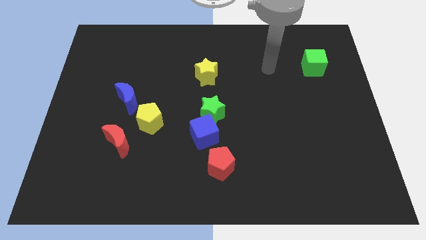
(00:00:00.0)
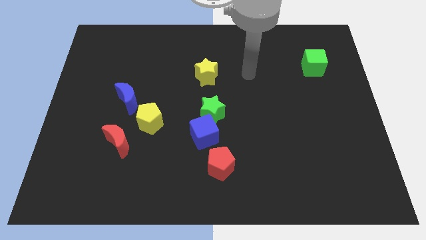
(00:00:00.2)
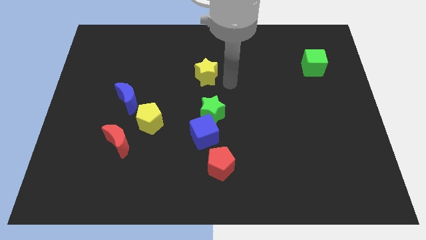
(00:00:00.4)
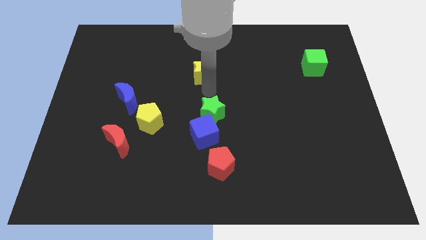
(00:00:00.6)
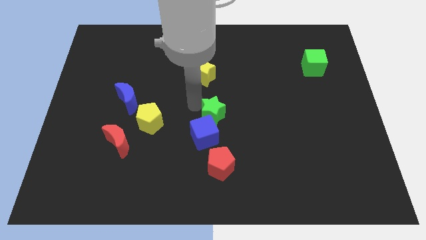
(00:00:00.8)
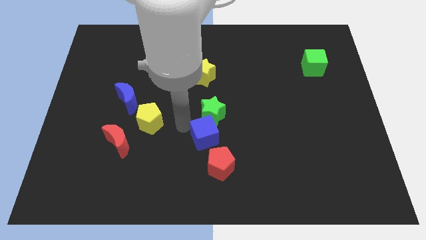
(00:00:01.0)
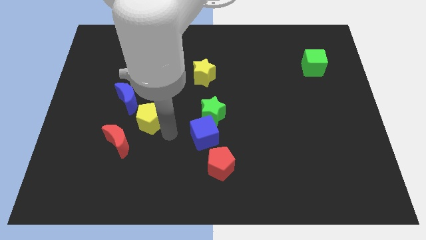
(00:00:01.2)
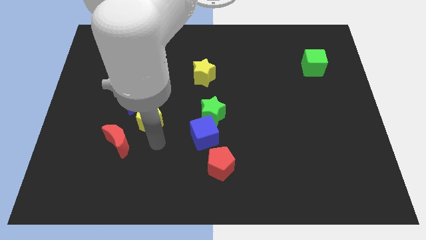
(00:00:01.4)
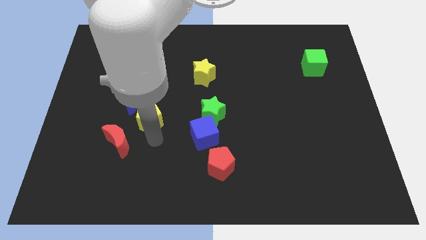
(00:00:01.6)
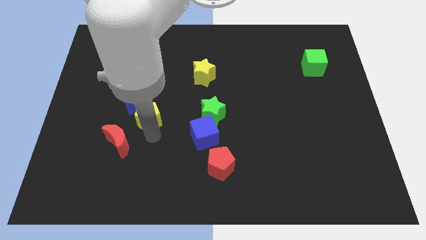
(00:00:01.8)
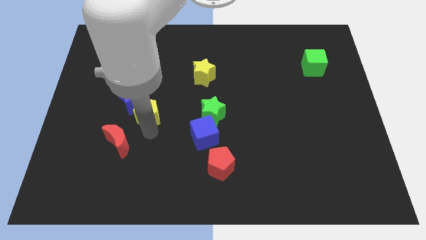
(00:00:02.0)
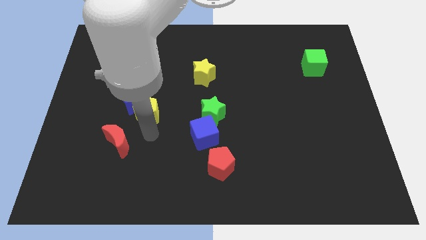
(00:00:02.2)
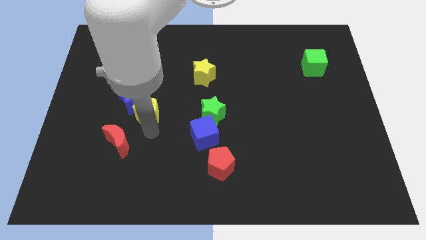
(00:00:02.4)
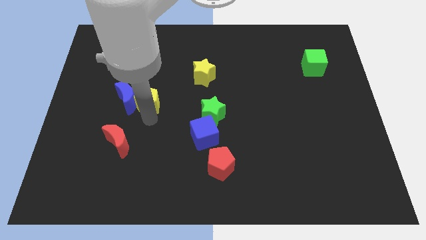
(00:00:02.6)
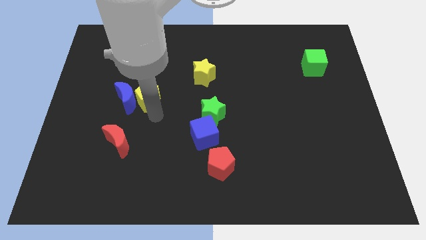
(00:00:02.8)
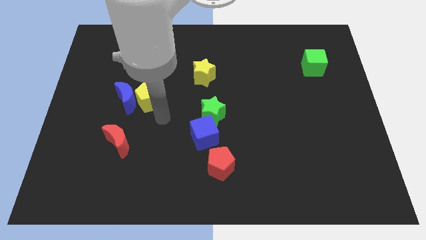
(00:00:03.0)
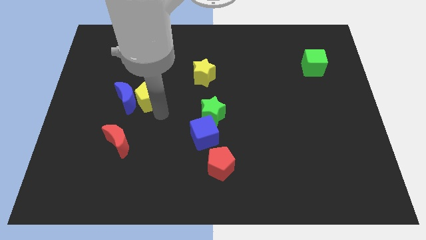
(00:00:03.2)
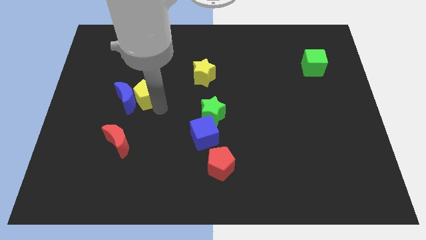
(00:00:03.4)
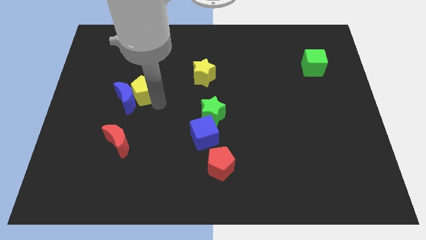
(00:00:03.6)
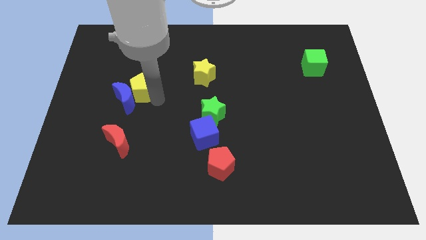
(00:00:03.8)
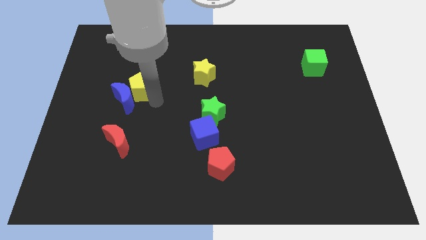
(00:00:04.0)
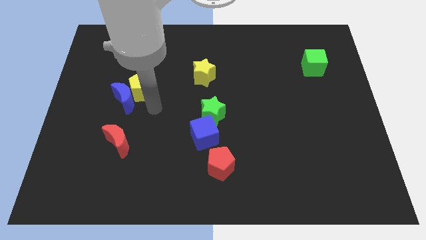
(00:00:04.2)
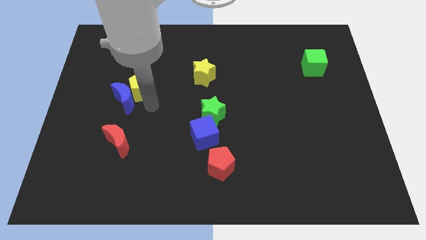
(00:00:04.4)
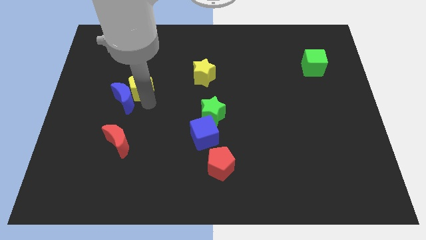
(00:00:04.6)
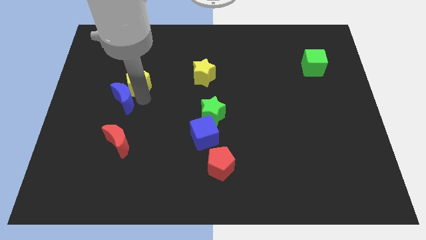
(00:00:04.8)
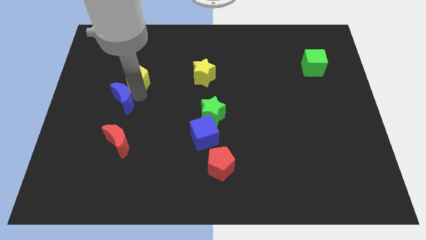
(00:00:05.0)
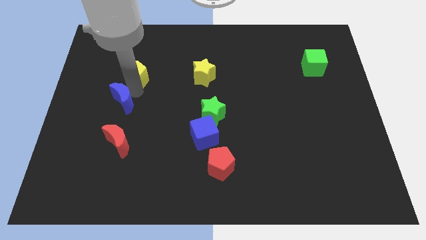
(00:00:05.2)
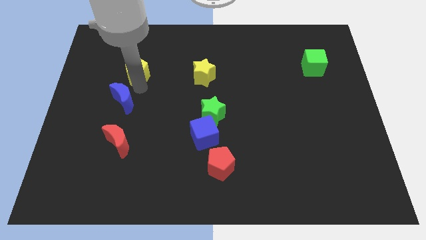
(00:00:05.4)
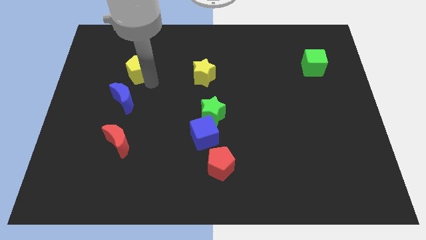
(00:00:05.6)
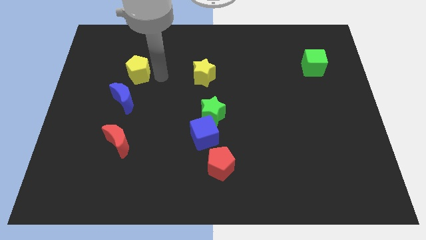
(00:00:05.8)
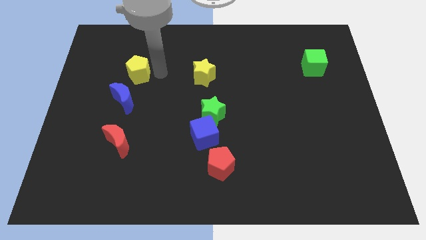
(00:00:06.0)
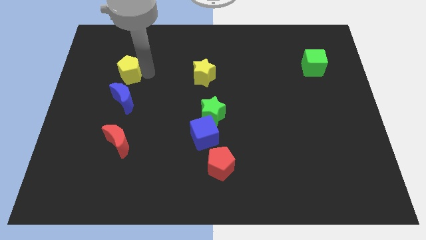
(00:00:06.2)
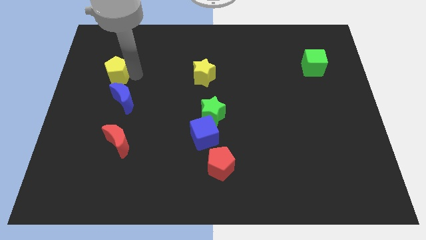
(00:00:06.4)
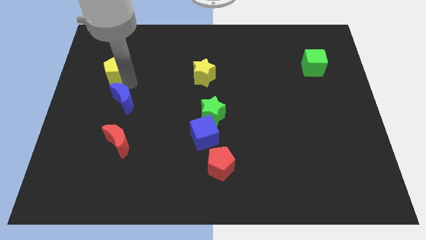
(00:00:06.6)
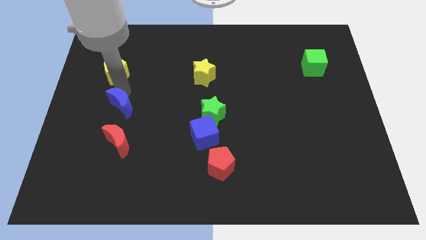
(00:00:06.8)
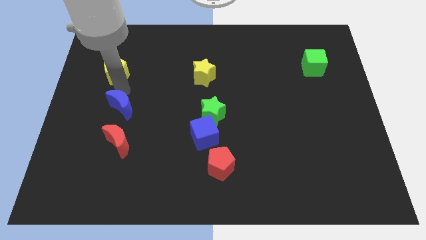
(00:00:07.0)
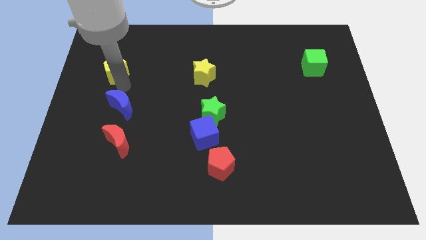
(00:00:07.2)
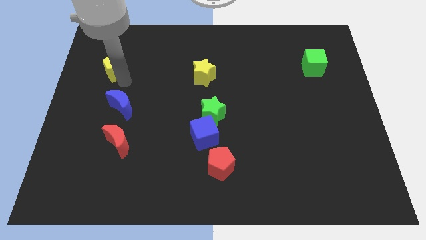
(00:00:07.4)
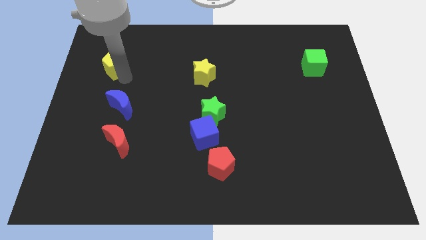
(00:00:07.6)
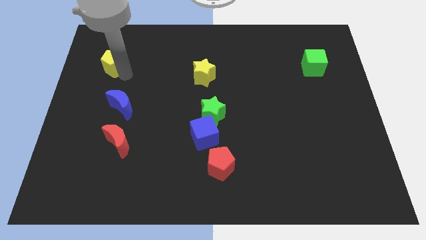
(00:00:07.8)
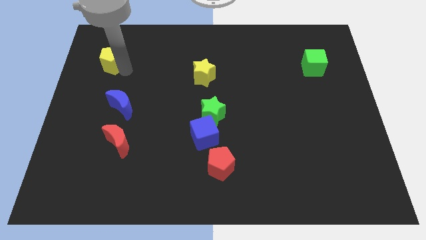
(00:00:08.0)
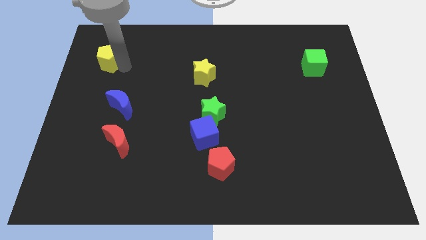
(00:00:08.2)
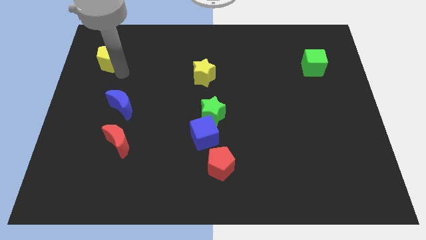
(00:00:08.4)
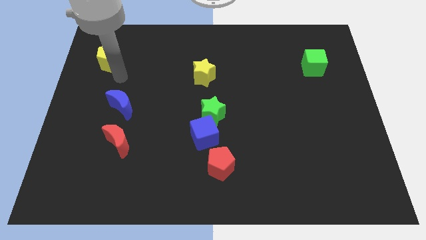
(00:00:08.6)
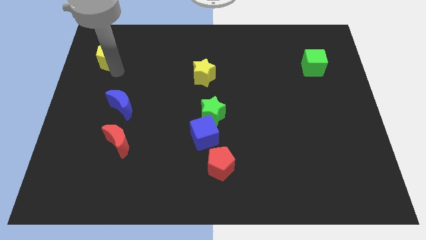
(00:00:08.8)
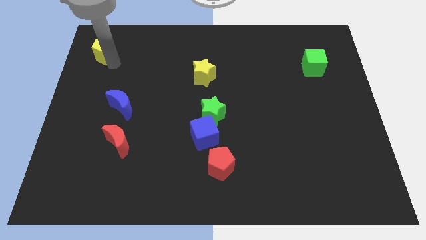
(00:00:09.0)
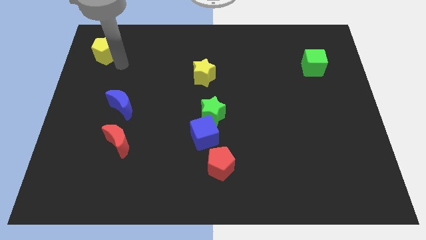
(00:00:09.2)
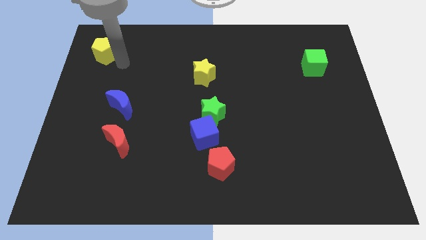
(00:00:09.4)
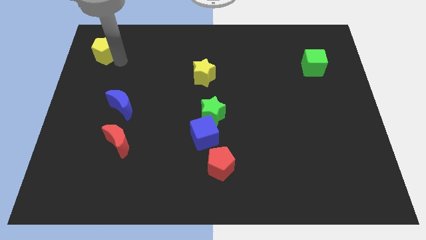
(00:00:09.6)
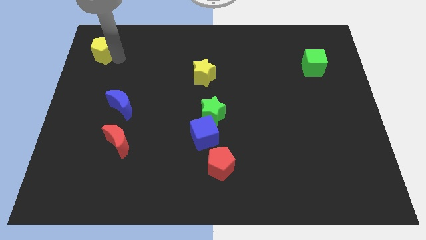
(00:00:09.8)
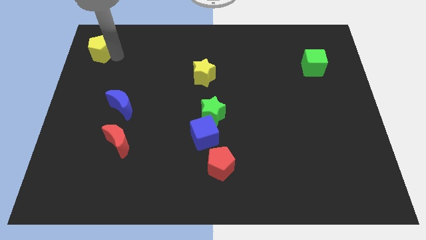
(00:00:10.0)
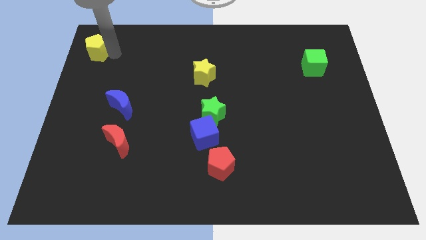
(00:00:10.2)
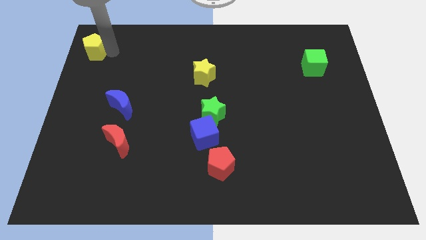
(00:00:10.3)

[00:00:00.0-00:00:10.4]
move the yellow pentagon to the upper left corner

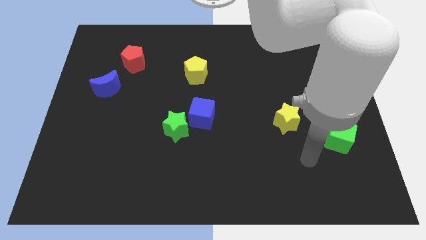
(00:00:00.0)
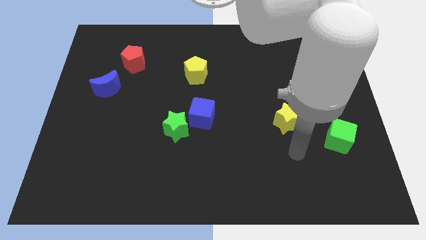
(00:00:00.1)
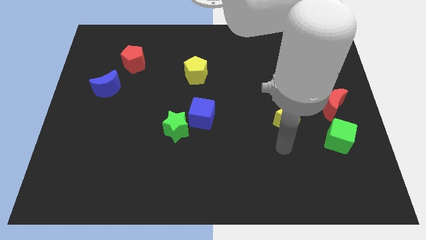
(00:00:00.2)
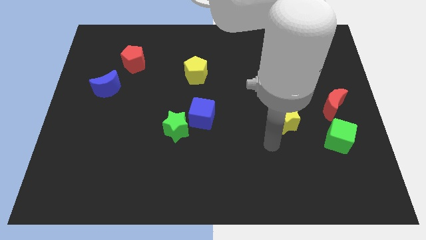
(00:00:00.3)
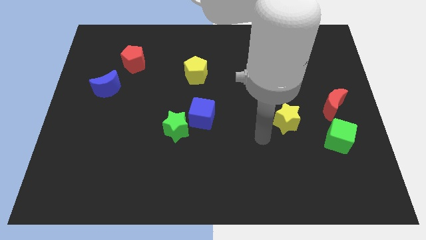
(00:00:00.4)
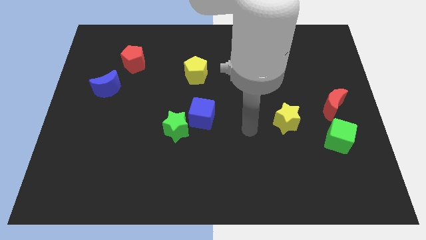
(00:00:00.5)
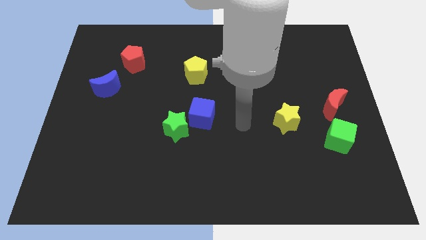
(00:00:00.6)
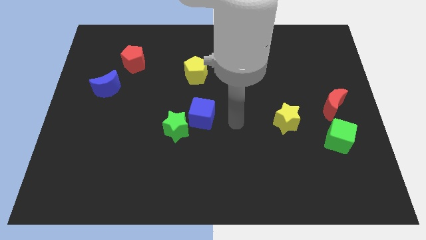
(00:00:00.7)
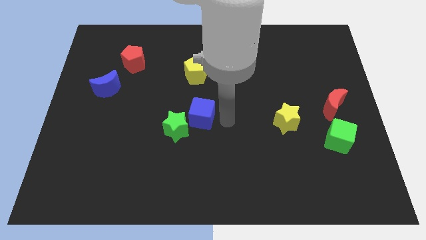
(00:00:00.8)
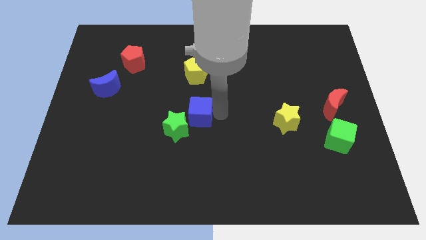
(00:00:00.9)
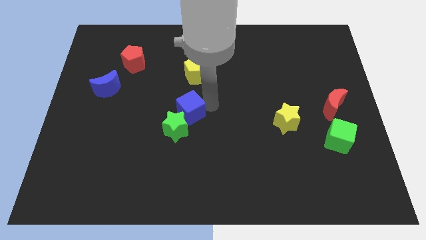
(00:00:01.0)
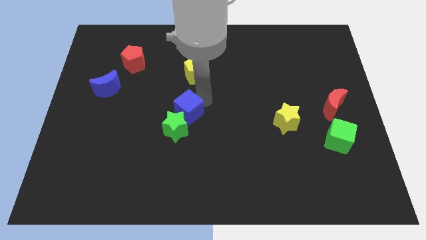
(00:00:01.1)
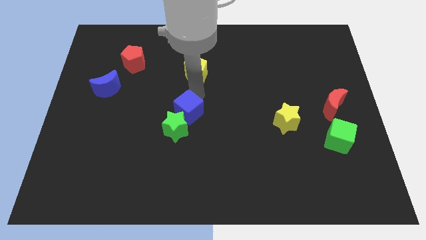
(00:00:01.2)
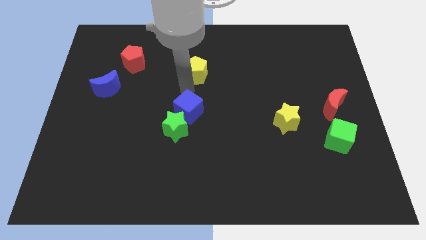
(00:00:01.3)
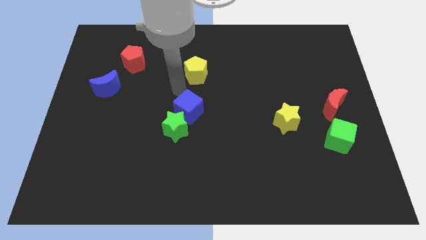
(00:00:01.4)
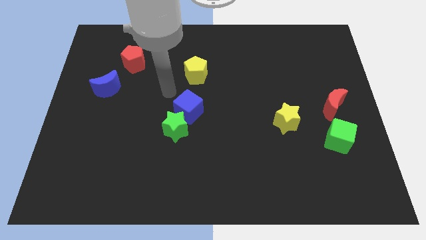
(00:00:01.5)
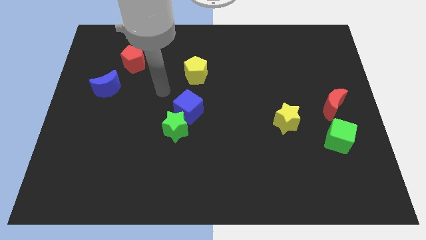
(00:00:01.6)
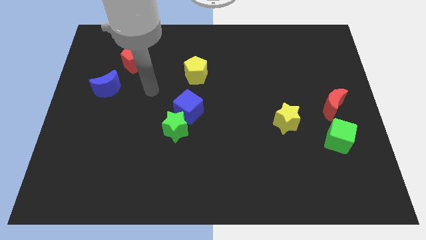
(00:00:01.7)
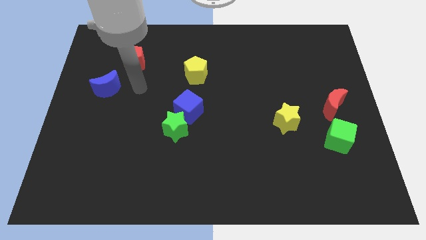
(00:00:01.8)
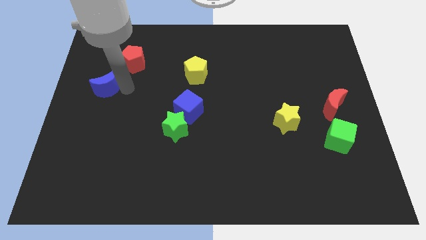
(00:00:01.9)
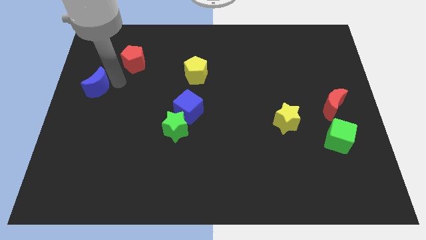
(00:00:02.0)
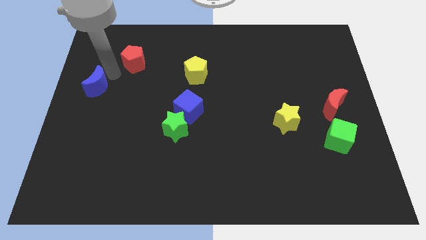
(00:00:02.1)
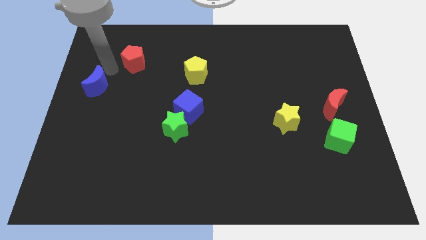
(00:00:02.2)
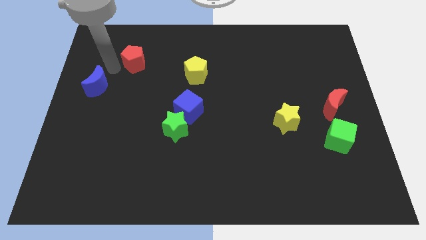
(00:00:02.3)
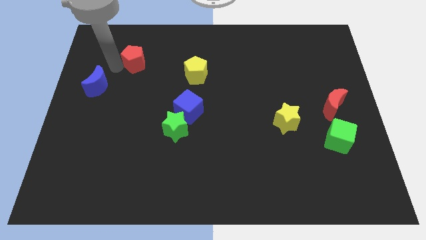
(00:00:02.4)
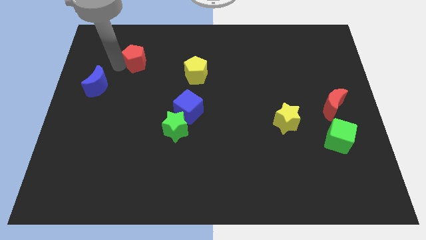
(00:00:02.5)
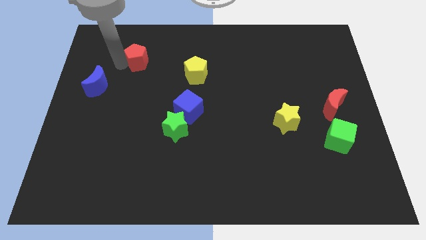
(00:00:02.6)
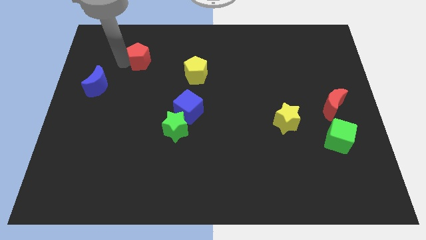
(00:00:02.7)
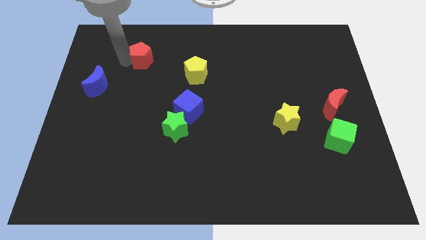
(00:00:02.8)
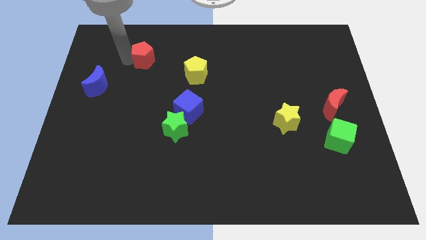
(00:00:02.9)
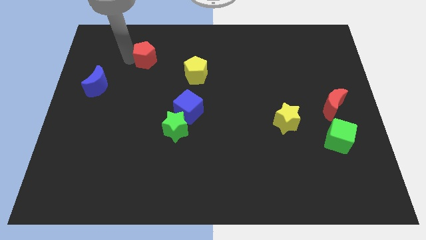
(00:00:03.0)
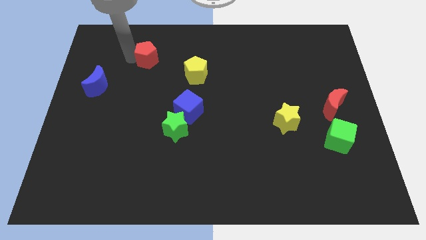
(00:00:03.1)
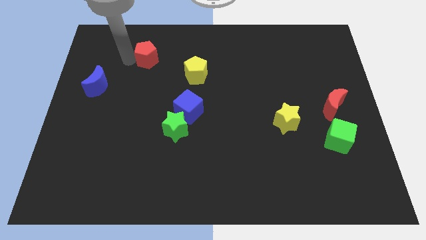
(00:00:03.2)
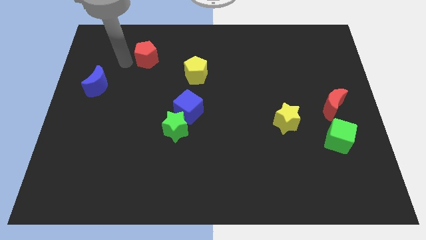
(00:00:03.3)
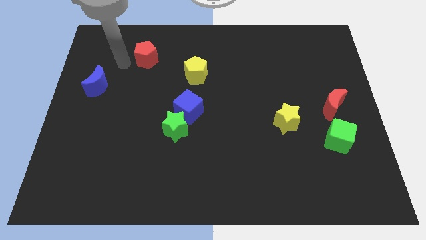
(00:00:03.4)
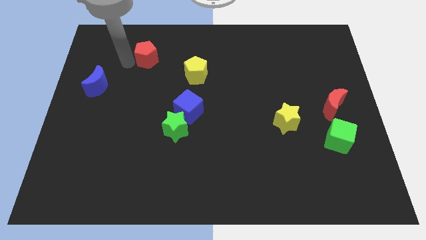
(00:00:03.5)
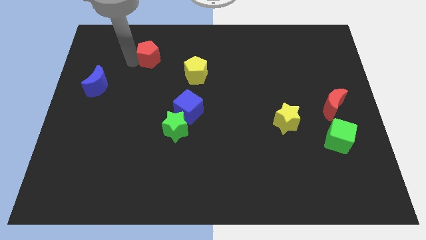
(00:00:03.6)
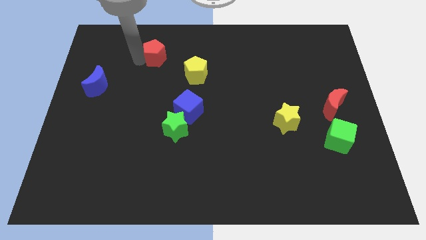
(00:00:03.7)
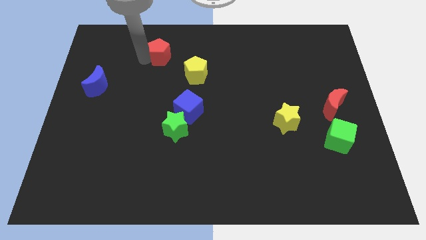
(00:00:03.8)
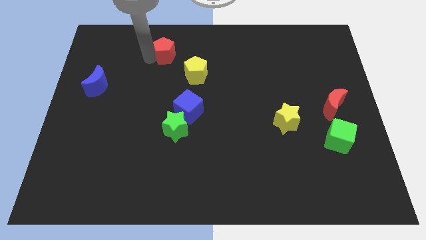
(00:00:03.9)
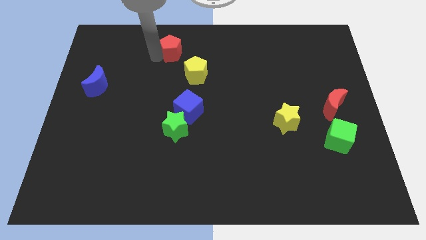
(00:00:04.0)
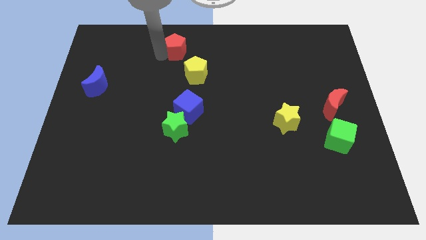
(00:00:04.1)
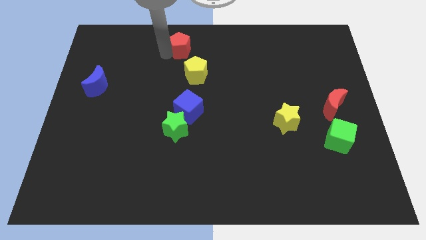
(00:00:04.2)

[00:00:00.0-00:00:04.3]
move the red pentagon to the top
